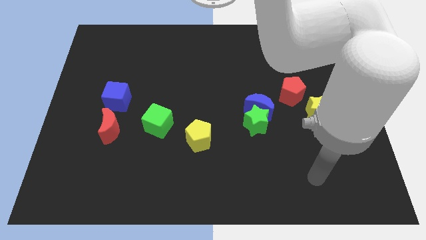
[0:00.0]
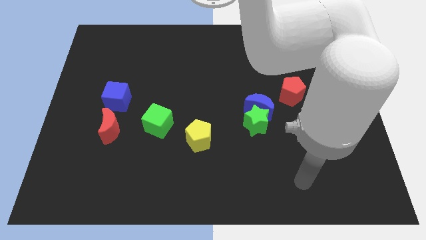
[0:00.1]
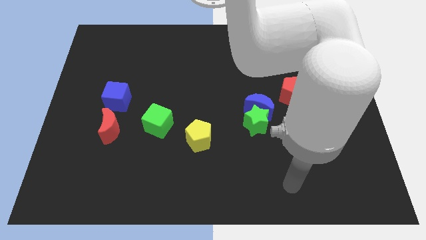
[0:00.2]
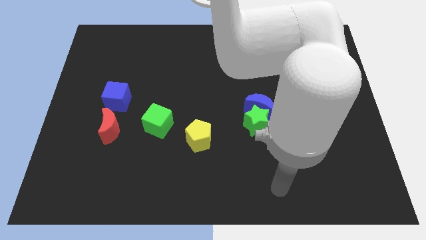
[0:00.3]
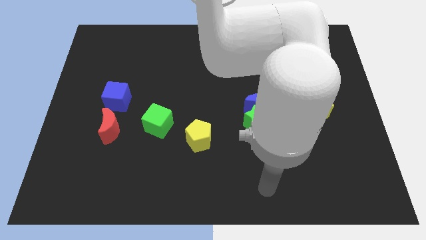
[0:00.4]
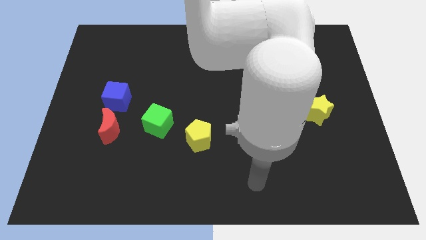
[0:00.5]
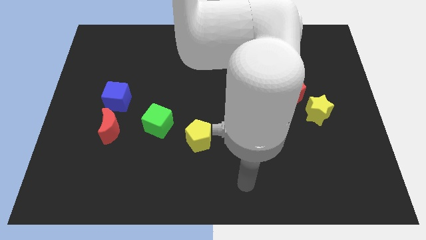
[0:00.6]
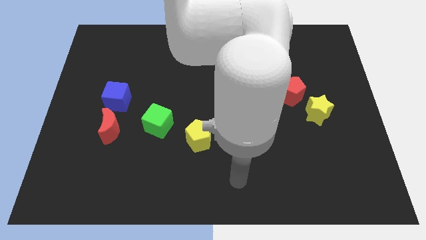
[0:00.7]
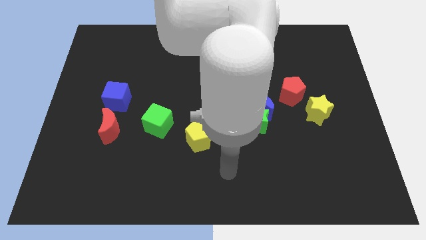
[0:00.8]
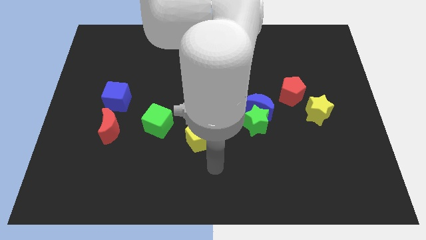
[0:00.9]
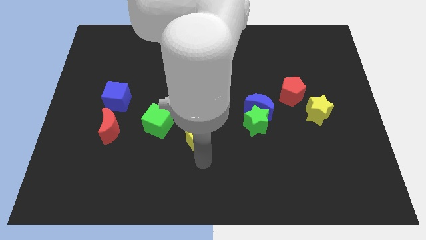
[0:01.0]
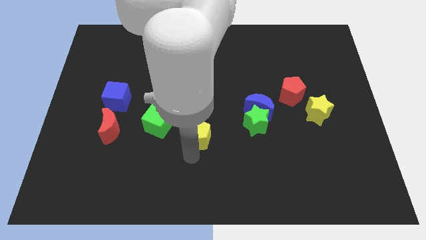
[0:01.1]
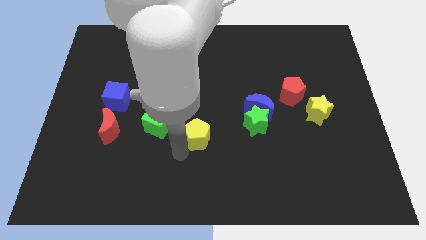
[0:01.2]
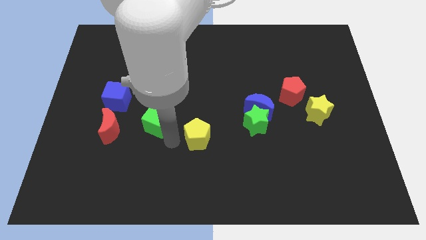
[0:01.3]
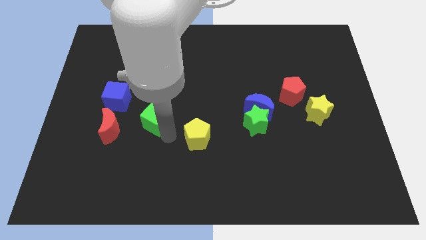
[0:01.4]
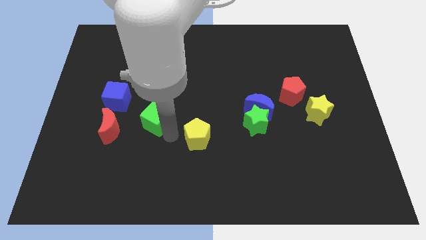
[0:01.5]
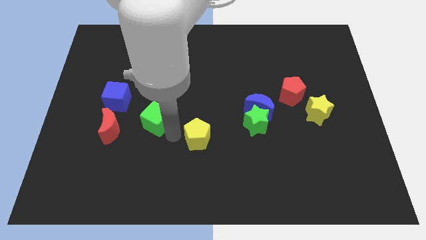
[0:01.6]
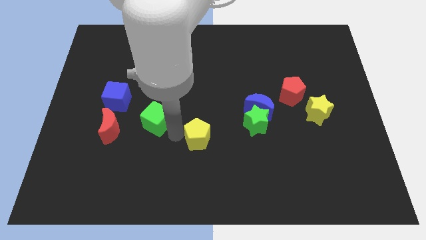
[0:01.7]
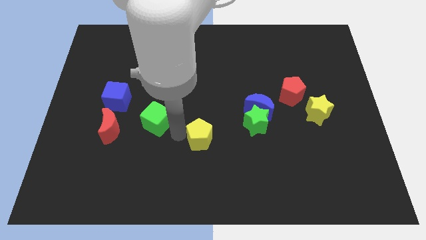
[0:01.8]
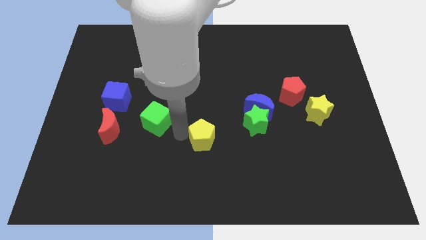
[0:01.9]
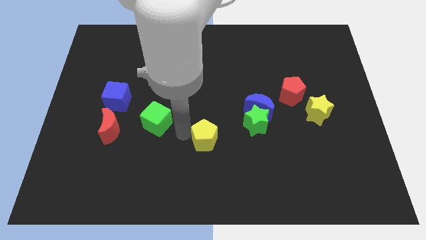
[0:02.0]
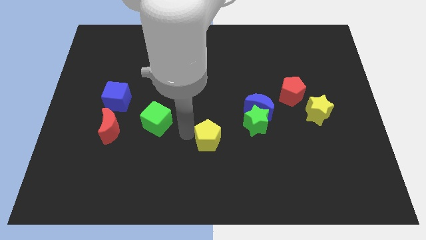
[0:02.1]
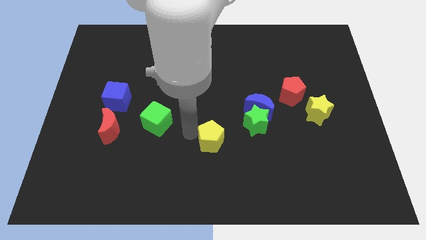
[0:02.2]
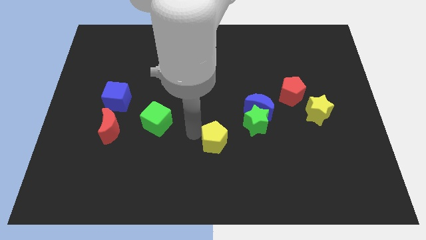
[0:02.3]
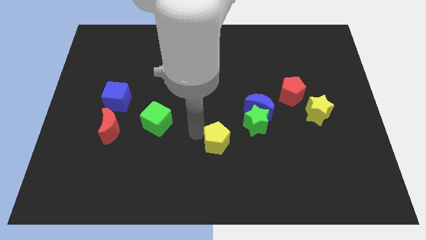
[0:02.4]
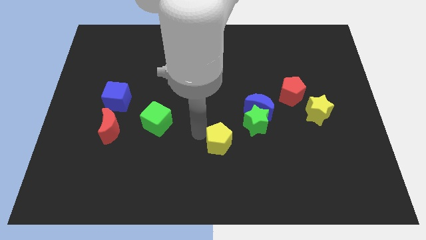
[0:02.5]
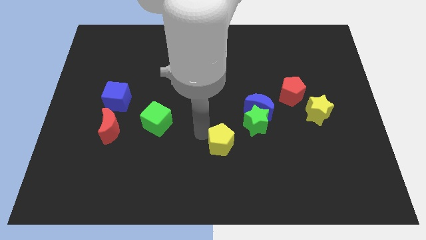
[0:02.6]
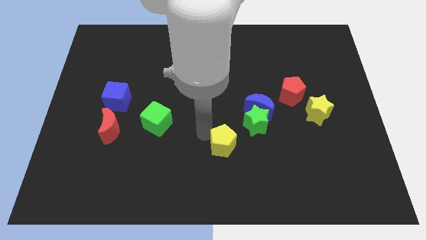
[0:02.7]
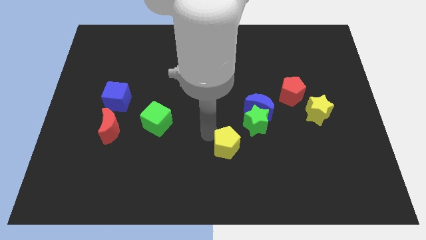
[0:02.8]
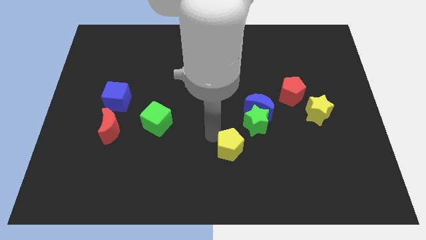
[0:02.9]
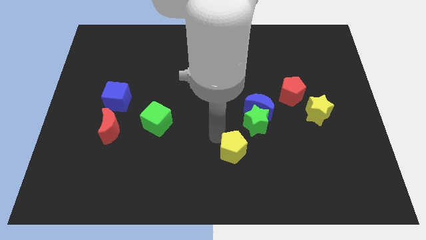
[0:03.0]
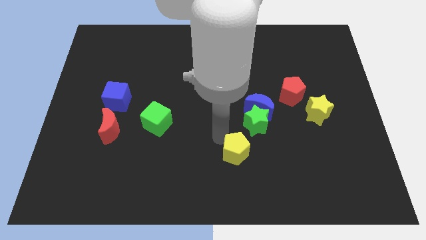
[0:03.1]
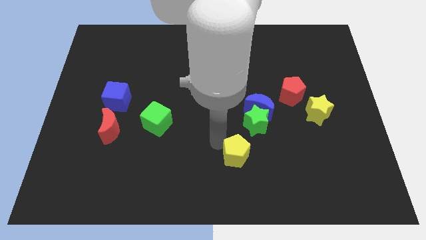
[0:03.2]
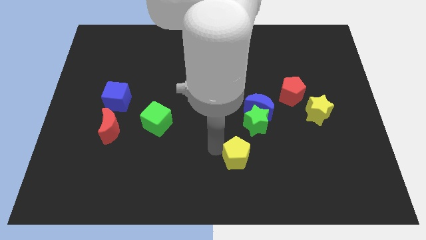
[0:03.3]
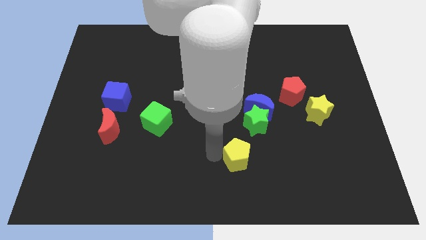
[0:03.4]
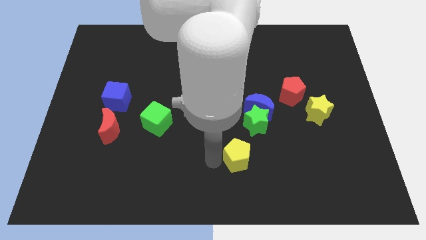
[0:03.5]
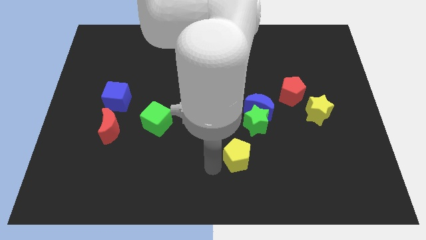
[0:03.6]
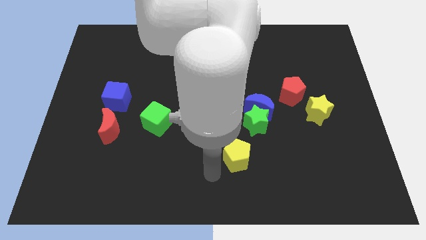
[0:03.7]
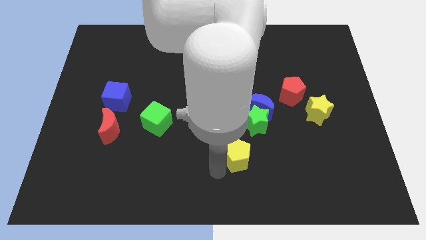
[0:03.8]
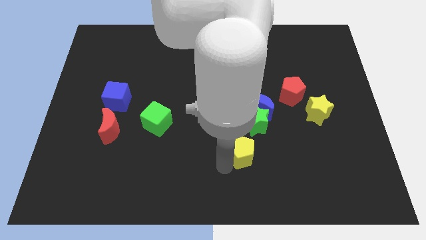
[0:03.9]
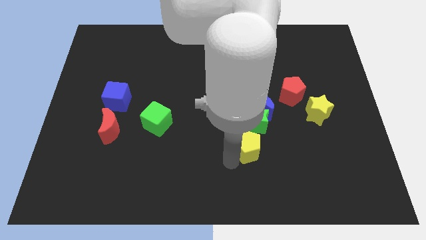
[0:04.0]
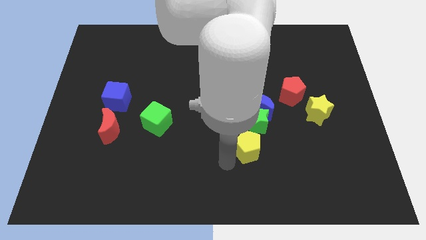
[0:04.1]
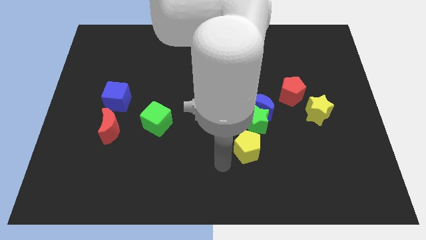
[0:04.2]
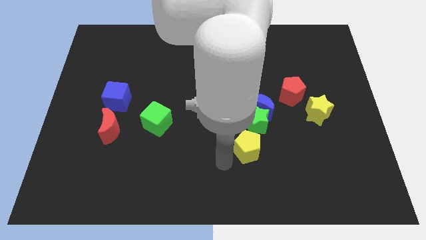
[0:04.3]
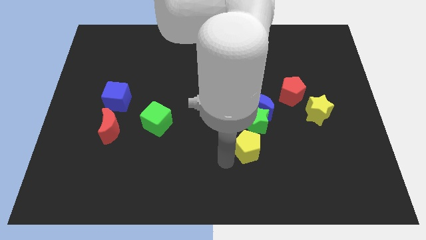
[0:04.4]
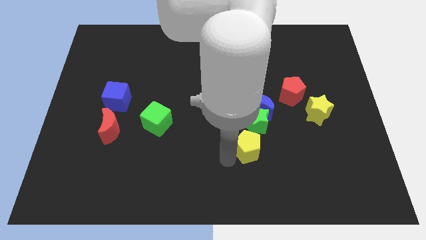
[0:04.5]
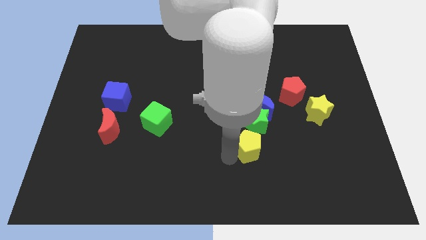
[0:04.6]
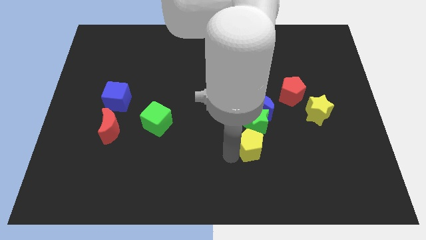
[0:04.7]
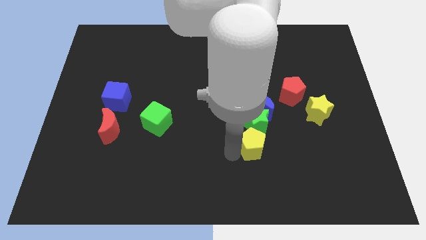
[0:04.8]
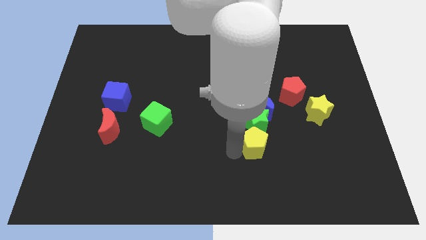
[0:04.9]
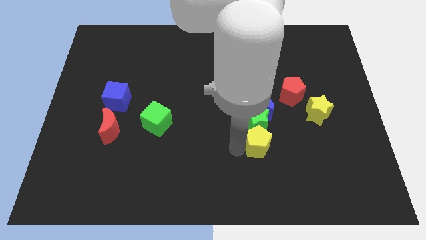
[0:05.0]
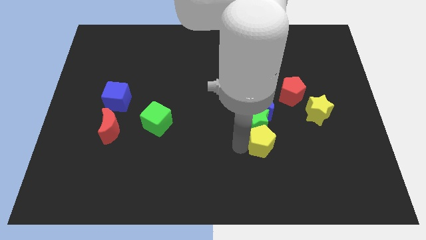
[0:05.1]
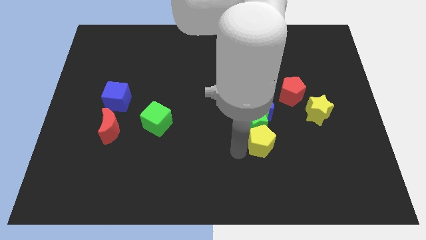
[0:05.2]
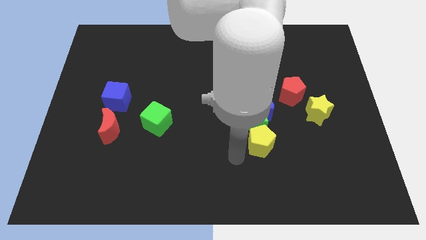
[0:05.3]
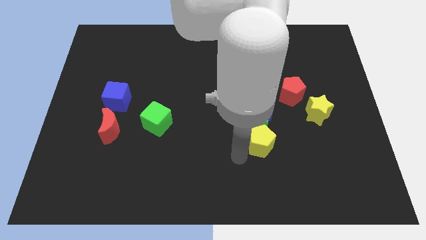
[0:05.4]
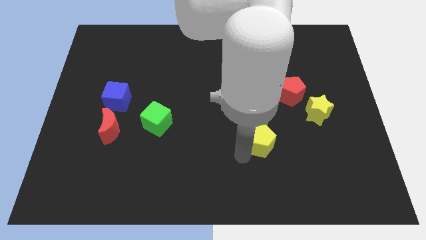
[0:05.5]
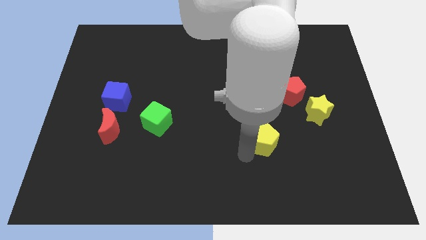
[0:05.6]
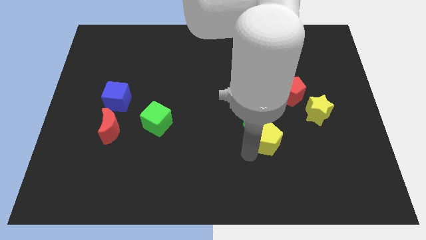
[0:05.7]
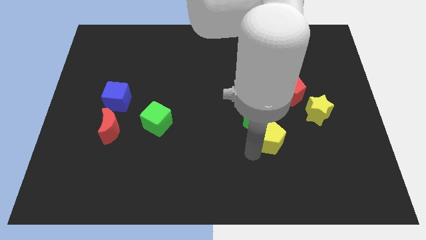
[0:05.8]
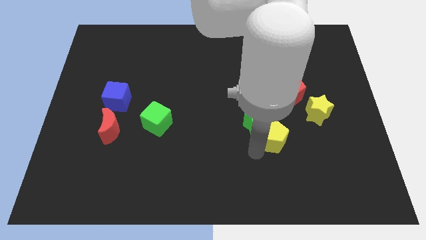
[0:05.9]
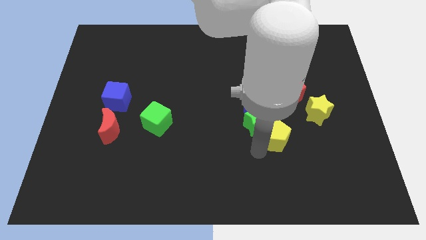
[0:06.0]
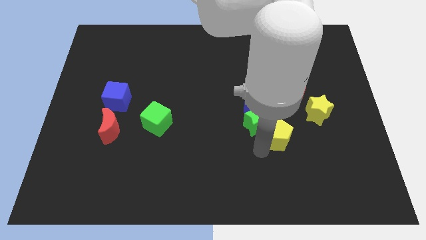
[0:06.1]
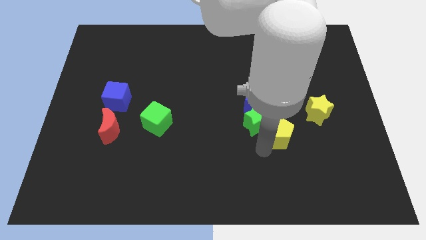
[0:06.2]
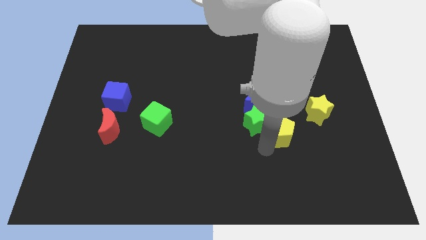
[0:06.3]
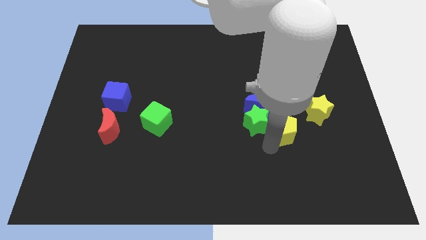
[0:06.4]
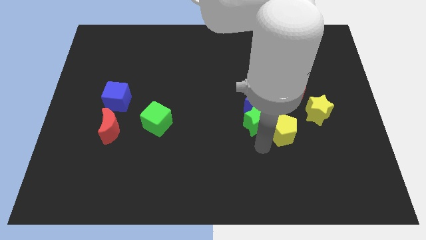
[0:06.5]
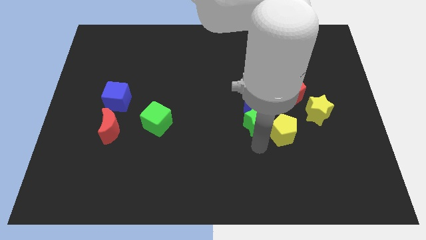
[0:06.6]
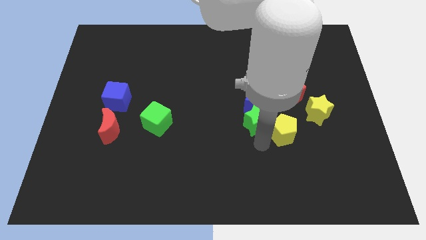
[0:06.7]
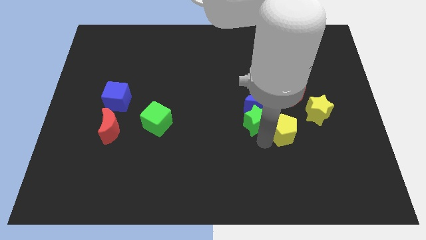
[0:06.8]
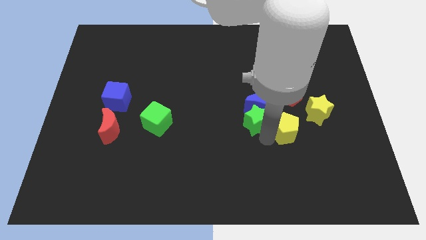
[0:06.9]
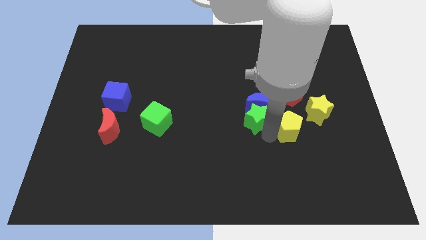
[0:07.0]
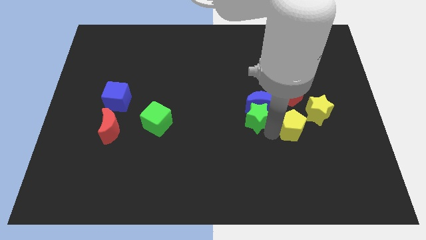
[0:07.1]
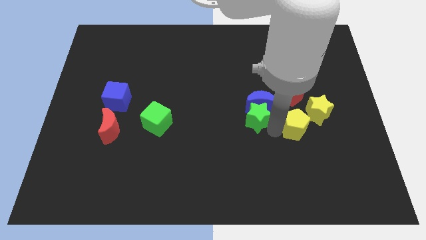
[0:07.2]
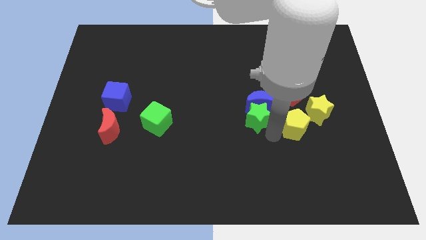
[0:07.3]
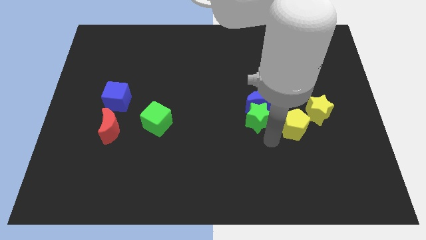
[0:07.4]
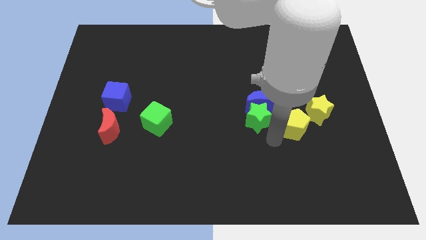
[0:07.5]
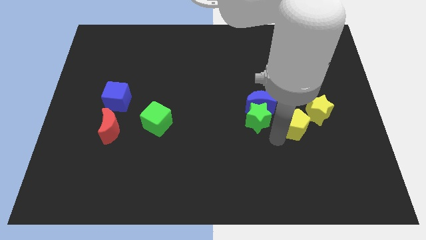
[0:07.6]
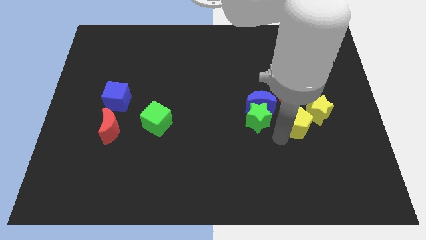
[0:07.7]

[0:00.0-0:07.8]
slide the yellow pentagon to the yellow star

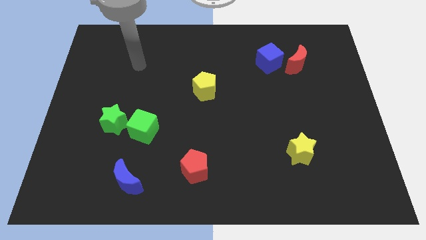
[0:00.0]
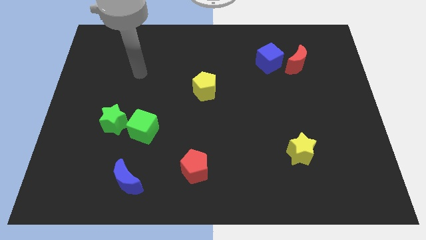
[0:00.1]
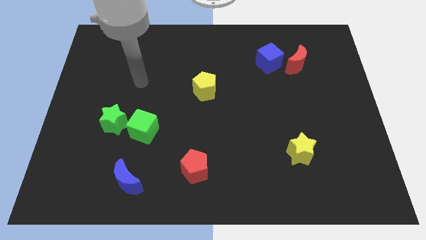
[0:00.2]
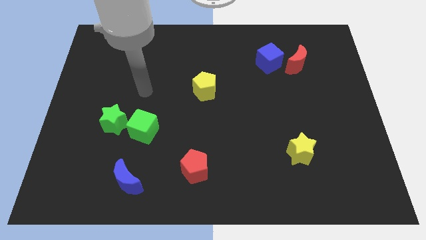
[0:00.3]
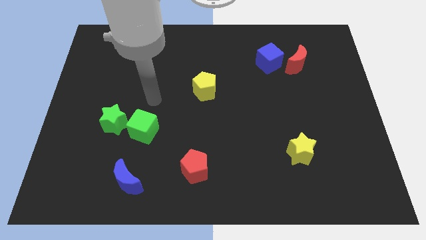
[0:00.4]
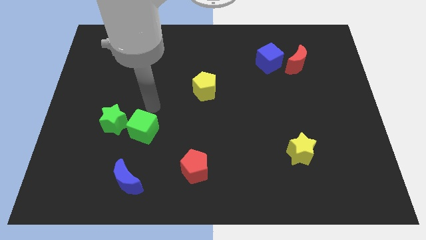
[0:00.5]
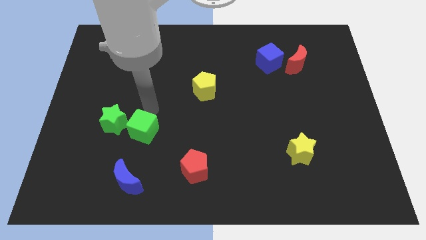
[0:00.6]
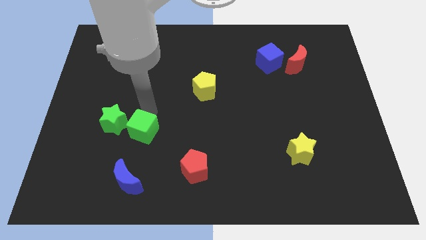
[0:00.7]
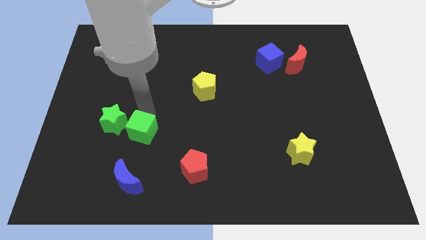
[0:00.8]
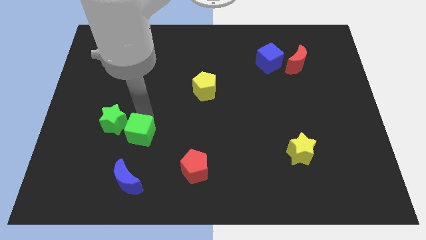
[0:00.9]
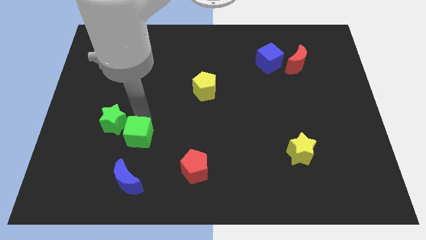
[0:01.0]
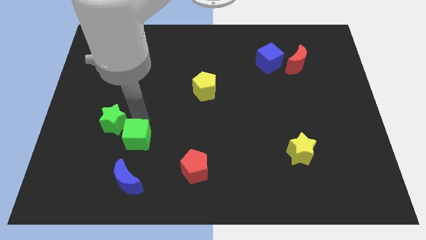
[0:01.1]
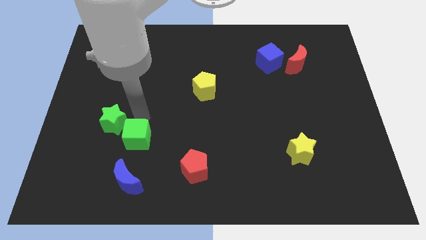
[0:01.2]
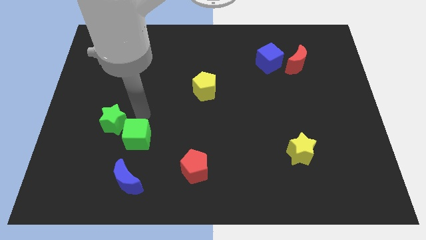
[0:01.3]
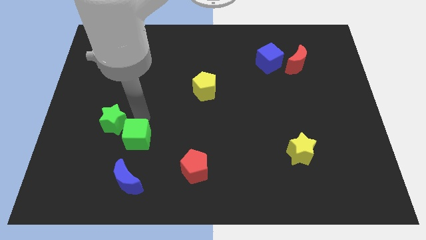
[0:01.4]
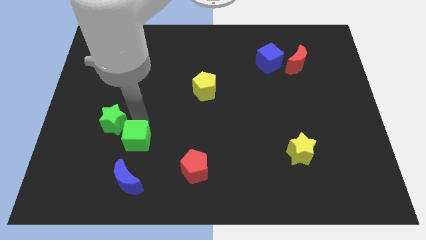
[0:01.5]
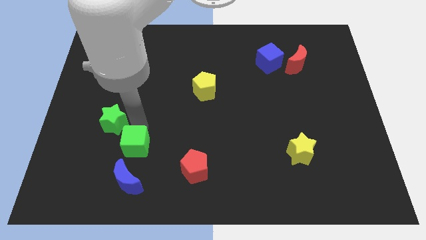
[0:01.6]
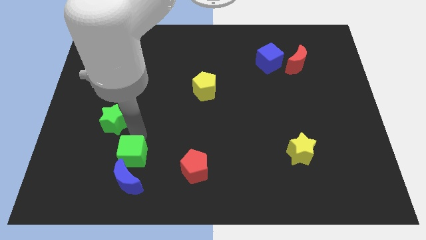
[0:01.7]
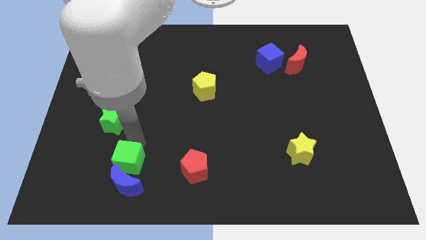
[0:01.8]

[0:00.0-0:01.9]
push the green cube towards the blue moon
